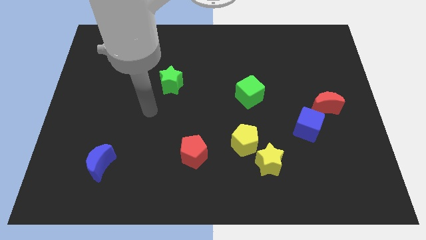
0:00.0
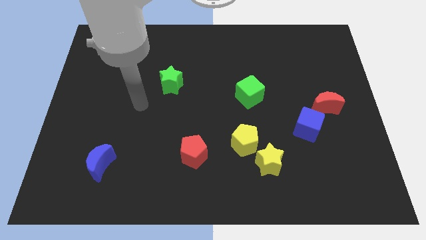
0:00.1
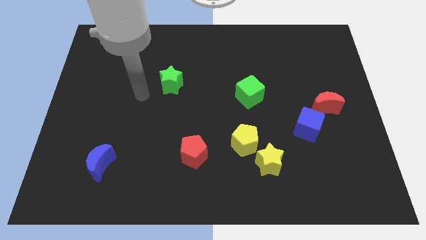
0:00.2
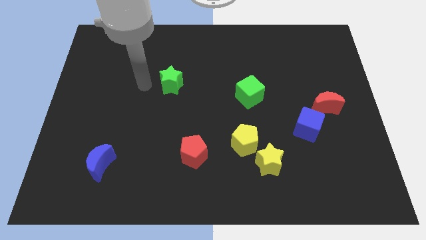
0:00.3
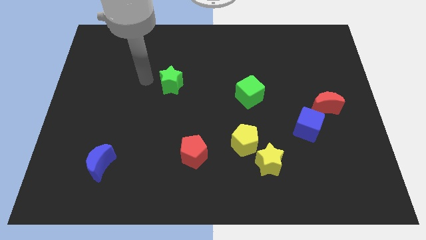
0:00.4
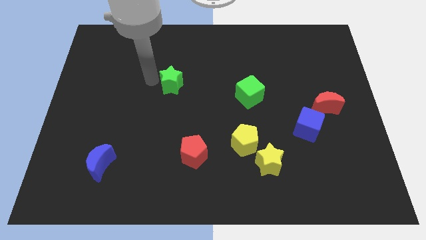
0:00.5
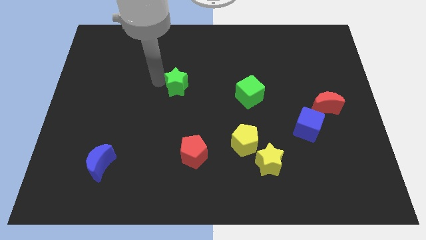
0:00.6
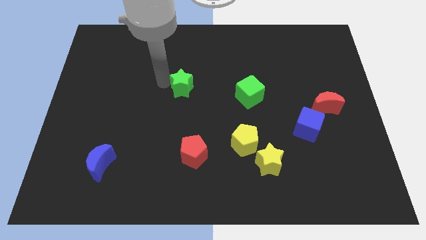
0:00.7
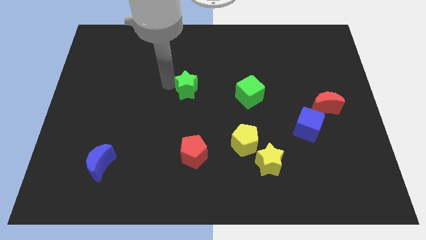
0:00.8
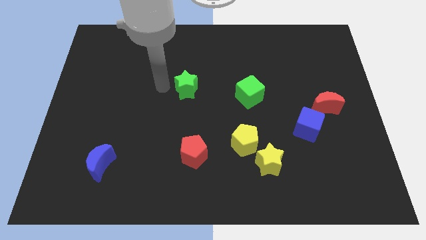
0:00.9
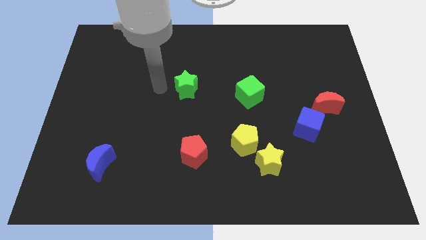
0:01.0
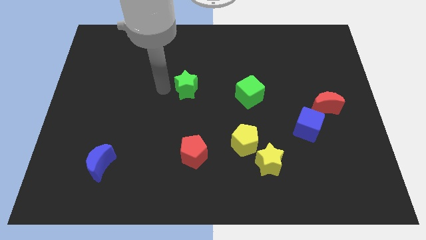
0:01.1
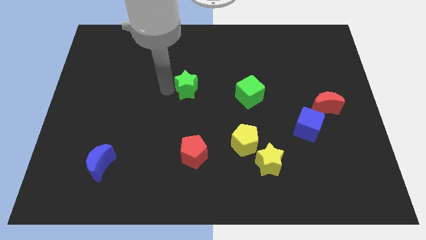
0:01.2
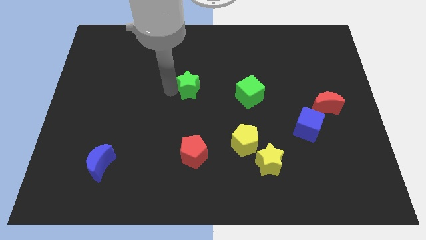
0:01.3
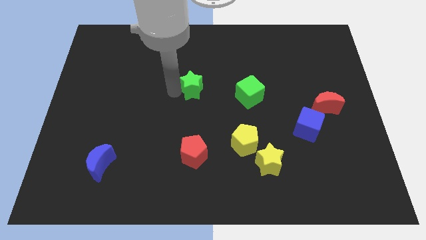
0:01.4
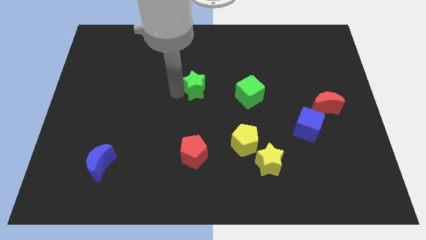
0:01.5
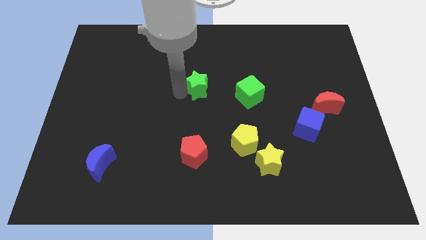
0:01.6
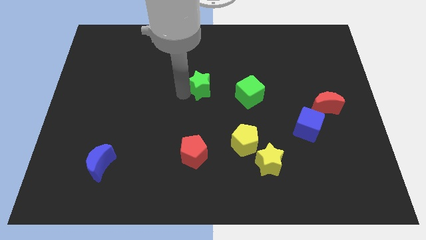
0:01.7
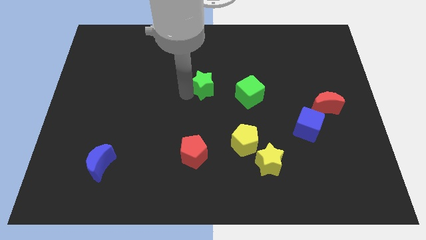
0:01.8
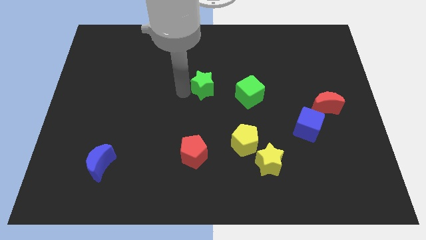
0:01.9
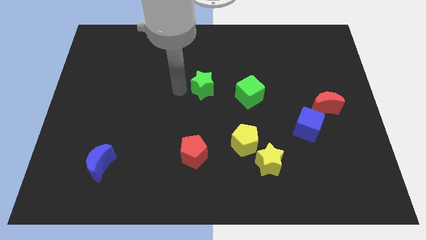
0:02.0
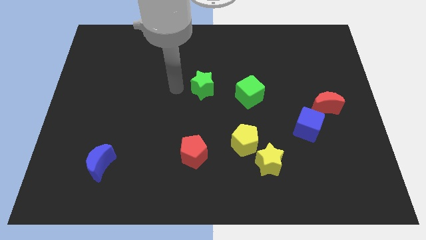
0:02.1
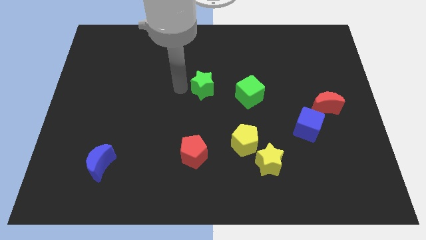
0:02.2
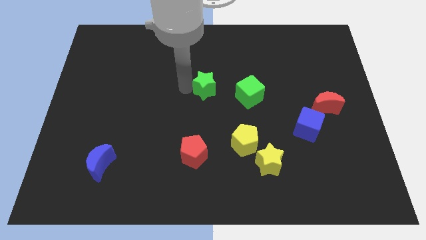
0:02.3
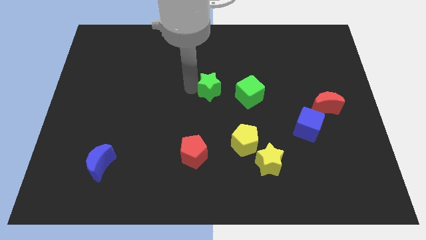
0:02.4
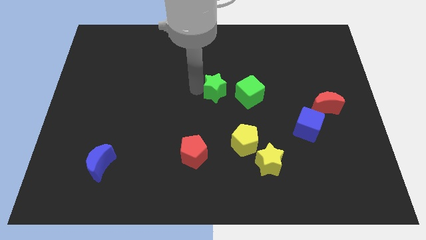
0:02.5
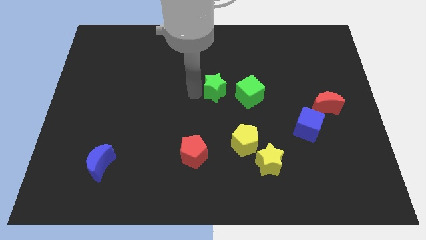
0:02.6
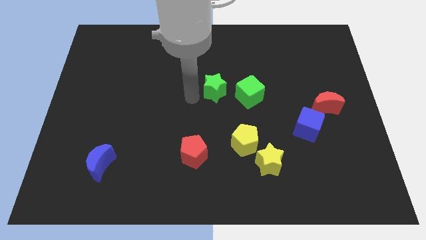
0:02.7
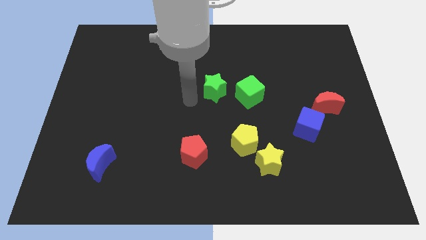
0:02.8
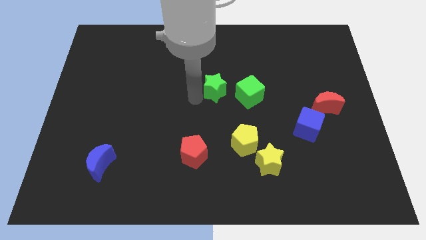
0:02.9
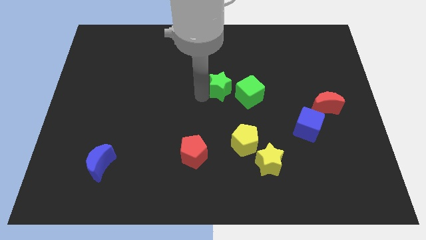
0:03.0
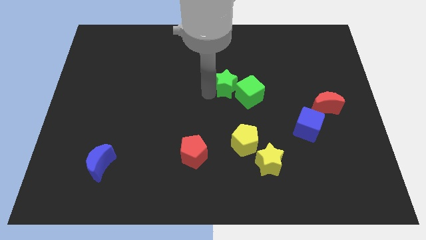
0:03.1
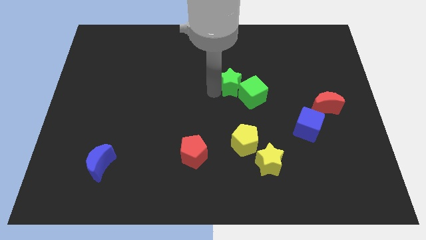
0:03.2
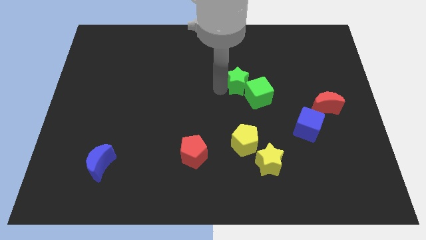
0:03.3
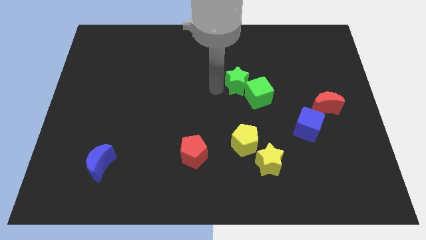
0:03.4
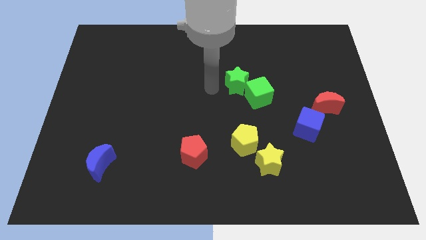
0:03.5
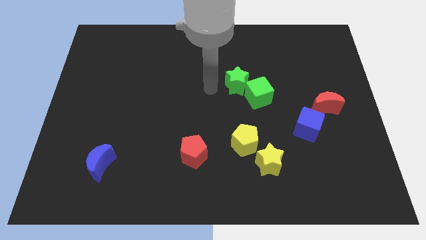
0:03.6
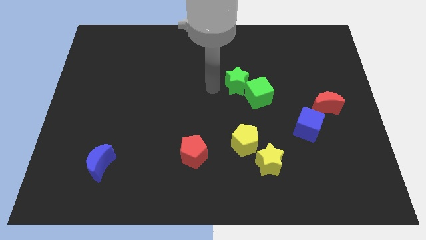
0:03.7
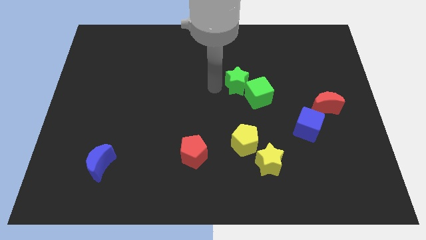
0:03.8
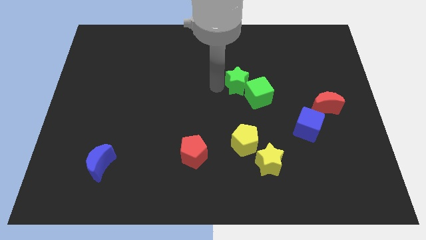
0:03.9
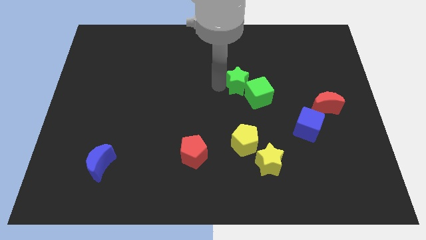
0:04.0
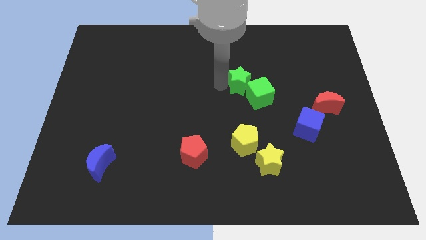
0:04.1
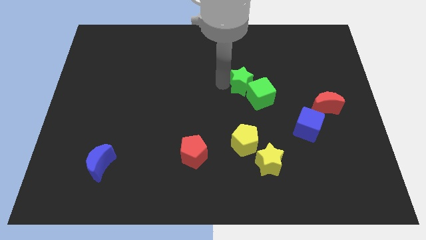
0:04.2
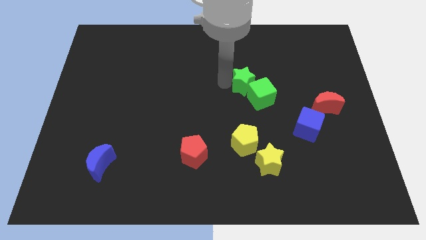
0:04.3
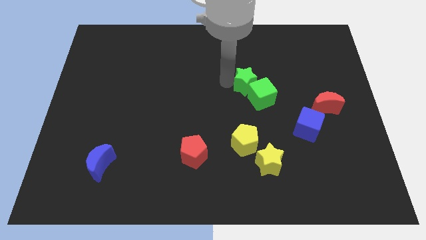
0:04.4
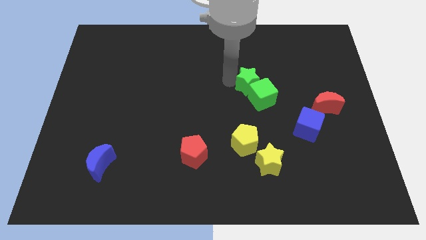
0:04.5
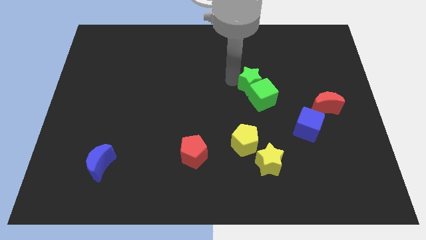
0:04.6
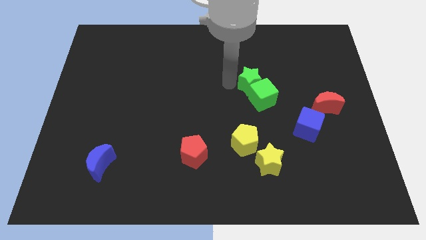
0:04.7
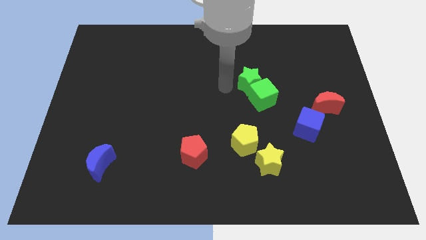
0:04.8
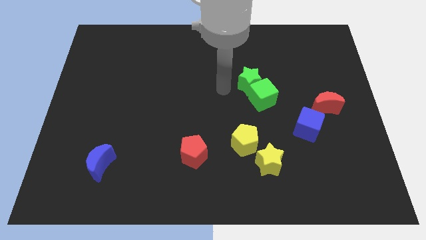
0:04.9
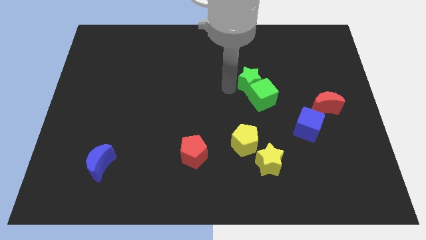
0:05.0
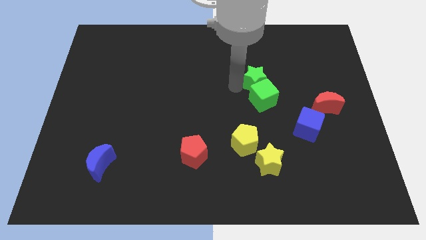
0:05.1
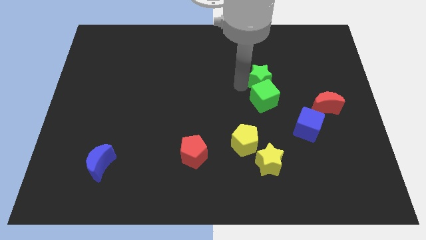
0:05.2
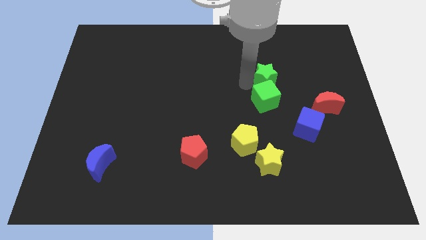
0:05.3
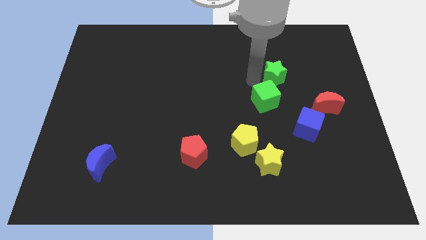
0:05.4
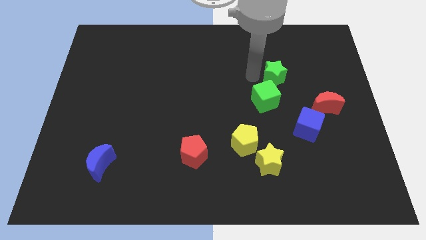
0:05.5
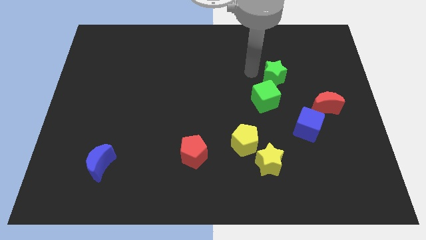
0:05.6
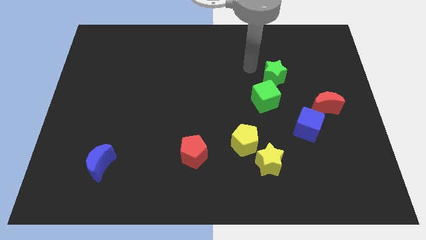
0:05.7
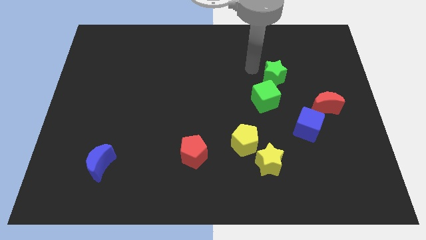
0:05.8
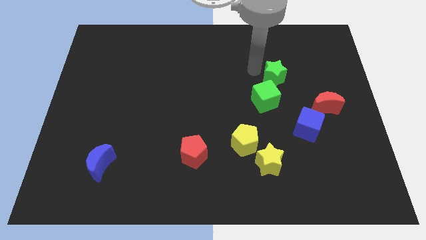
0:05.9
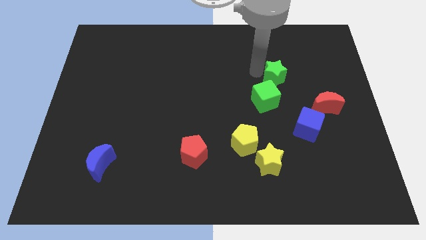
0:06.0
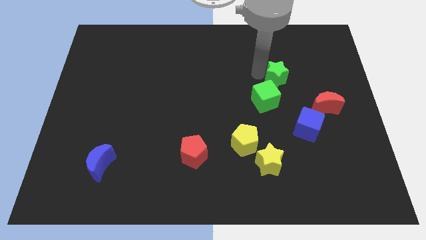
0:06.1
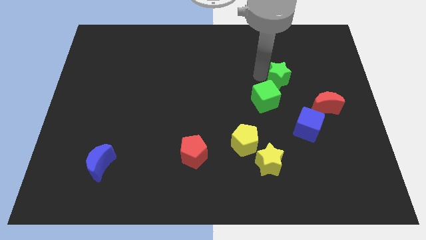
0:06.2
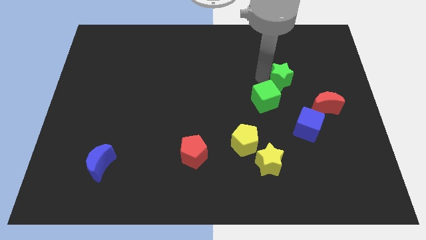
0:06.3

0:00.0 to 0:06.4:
move the green star to the top left side of the red moon
